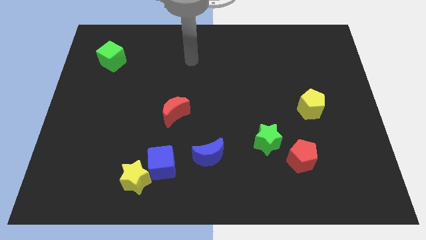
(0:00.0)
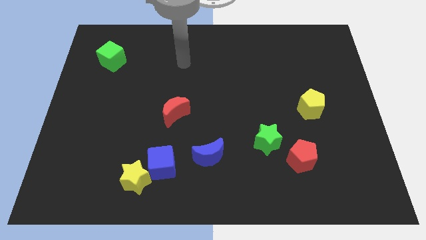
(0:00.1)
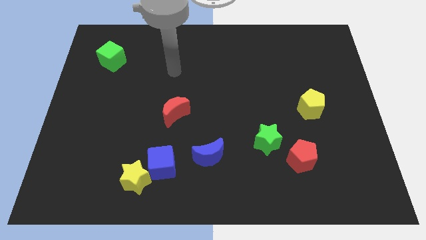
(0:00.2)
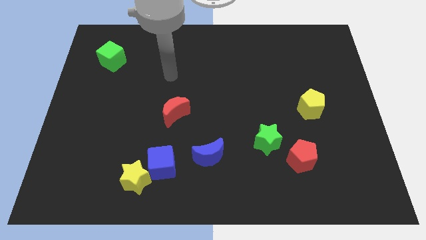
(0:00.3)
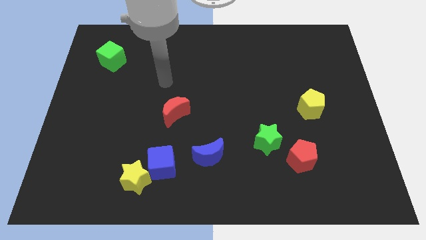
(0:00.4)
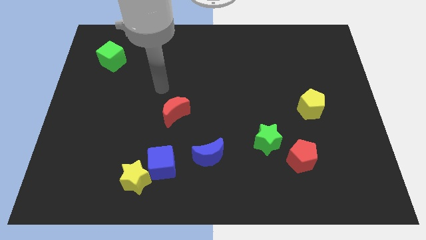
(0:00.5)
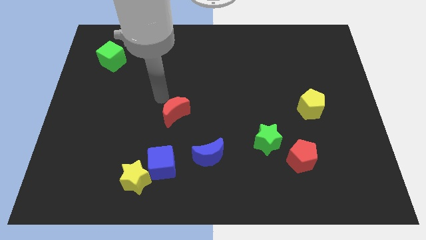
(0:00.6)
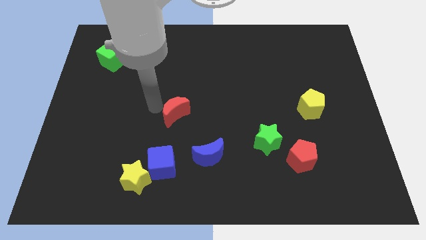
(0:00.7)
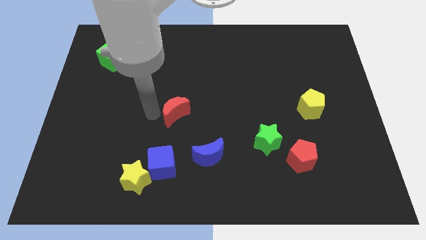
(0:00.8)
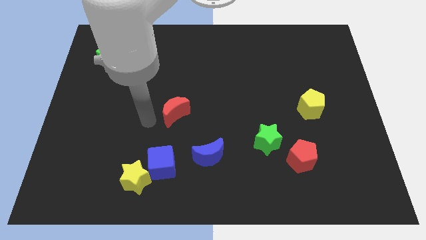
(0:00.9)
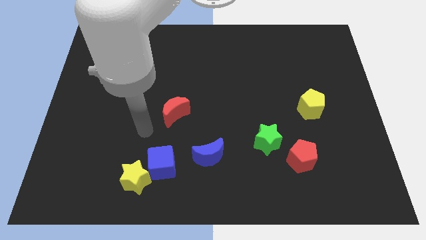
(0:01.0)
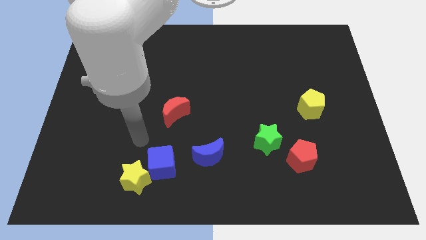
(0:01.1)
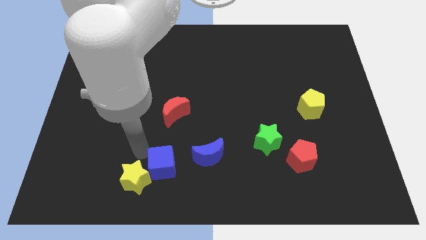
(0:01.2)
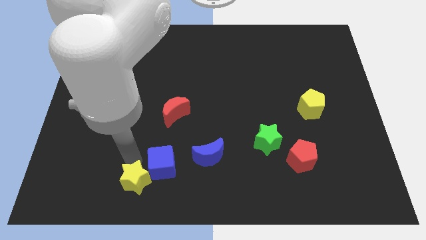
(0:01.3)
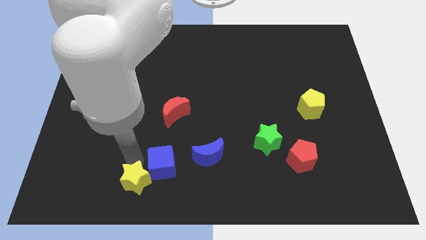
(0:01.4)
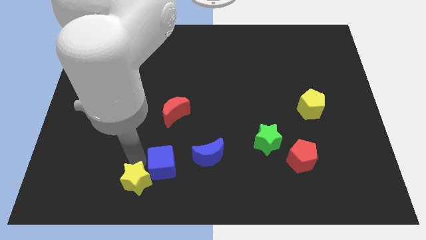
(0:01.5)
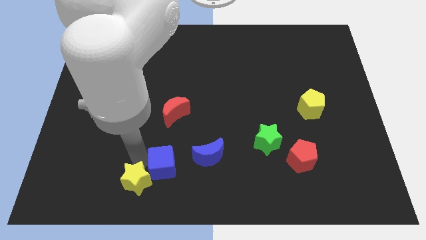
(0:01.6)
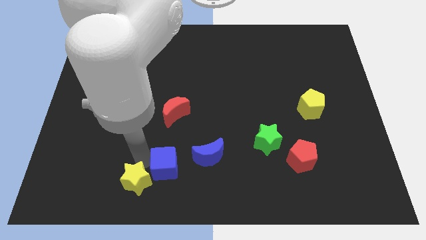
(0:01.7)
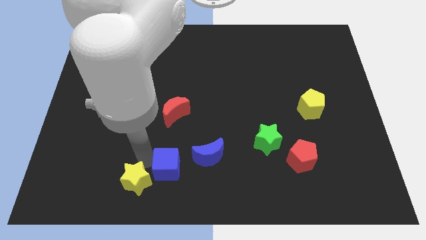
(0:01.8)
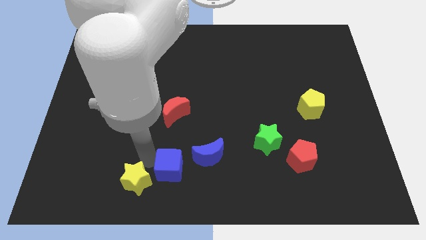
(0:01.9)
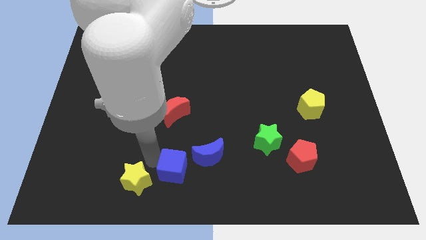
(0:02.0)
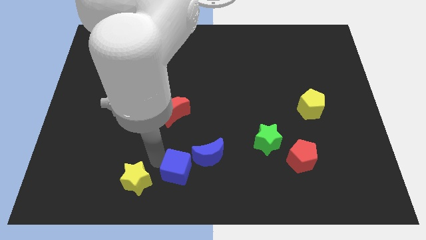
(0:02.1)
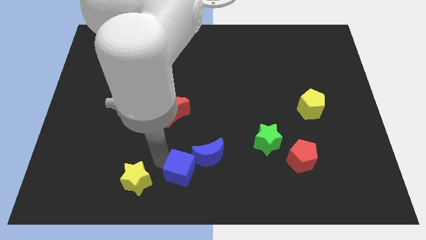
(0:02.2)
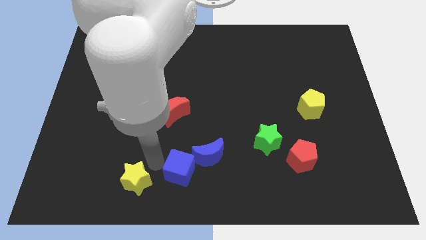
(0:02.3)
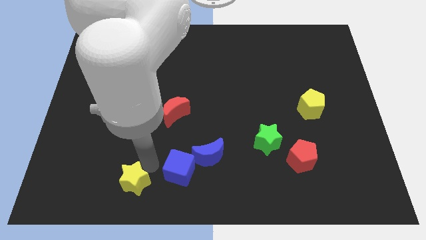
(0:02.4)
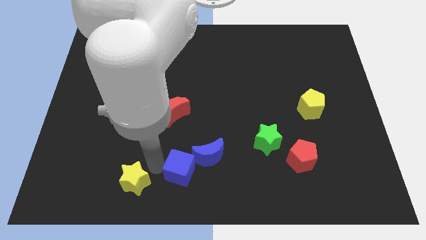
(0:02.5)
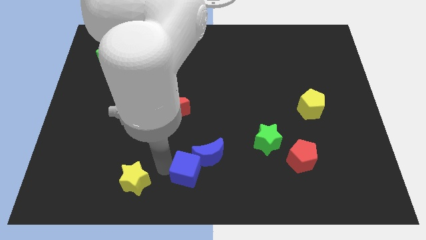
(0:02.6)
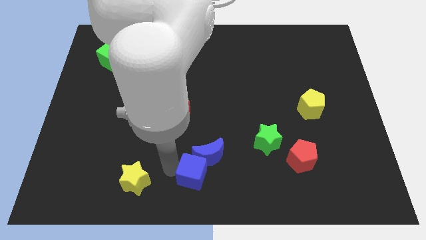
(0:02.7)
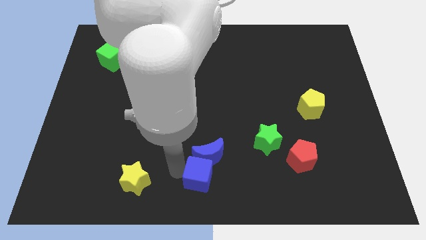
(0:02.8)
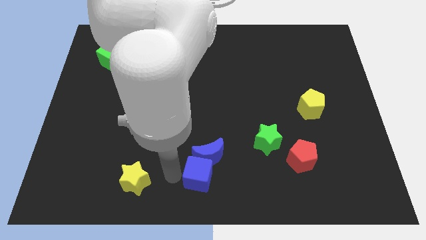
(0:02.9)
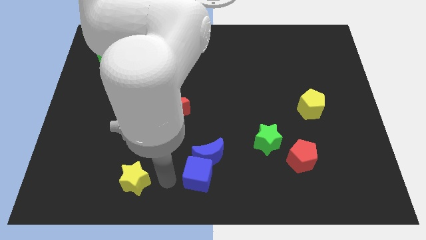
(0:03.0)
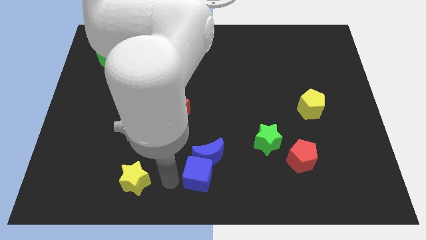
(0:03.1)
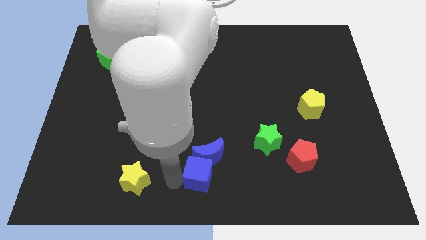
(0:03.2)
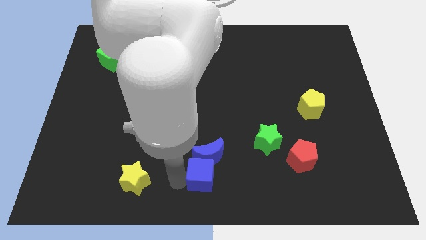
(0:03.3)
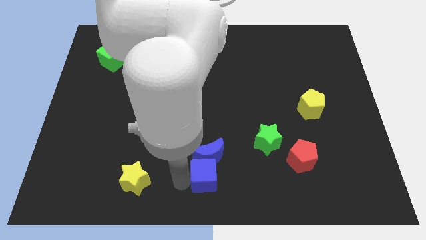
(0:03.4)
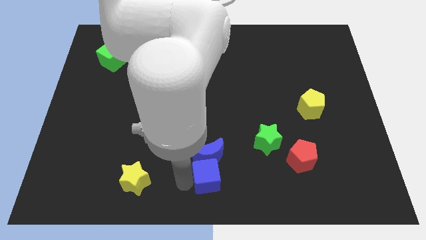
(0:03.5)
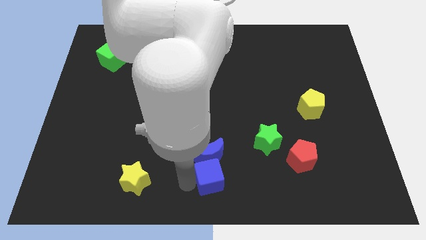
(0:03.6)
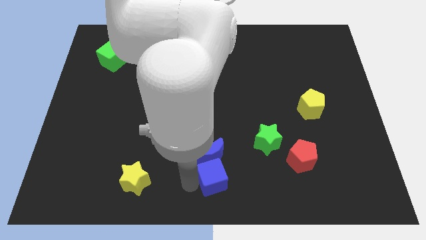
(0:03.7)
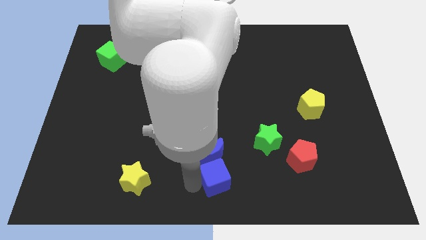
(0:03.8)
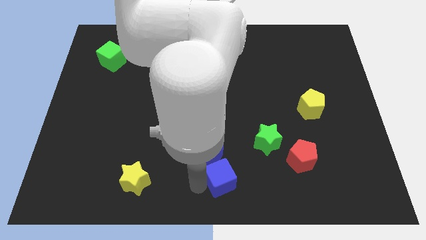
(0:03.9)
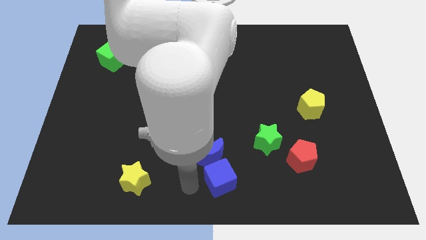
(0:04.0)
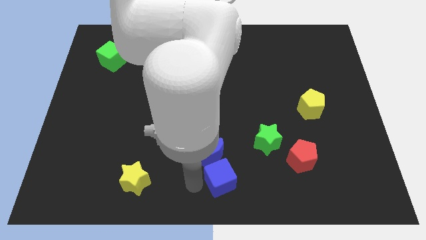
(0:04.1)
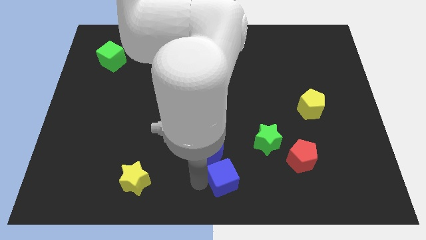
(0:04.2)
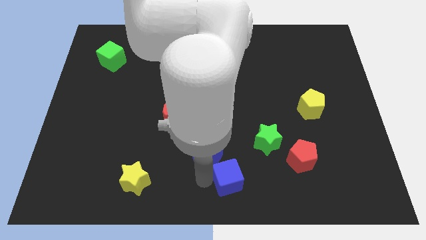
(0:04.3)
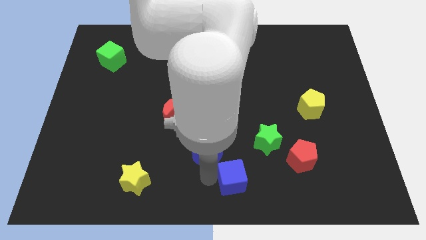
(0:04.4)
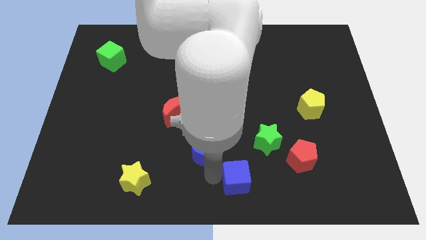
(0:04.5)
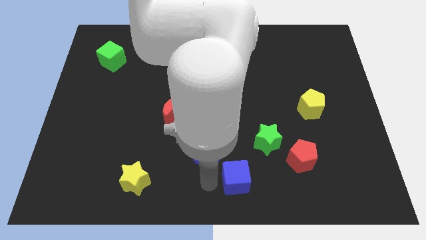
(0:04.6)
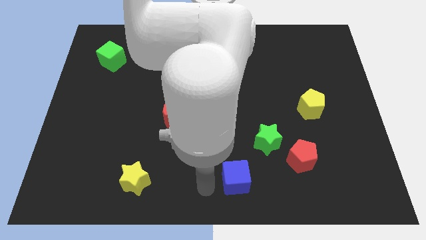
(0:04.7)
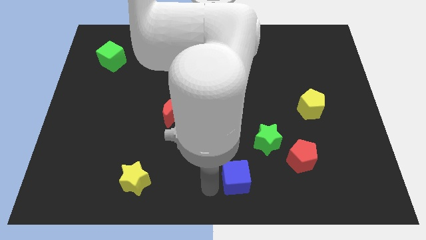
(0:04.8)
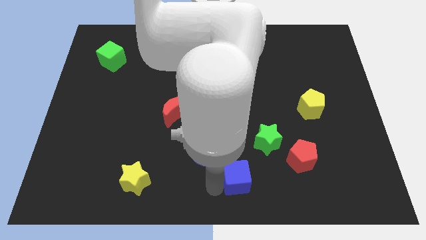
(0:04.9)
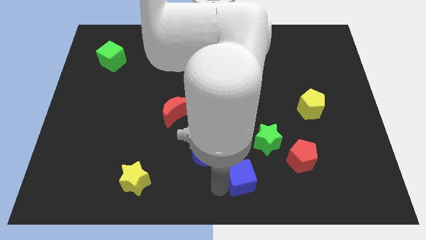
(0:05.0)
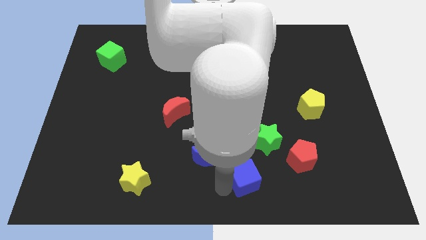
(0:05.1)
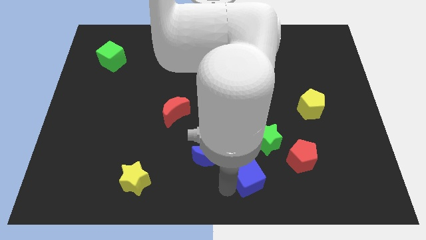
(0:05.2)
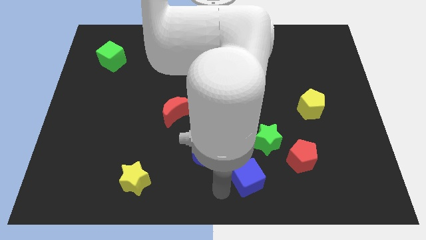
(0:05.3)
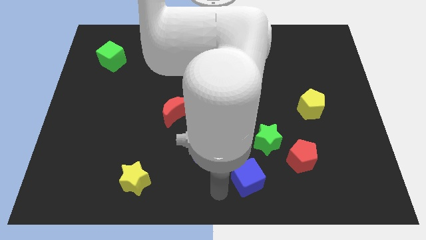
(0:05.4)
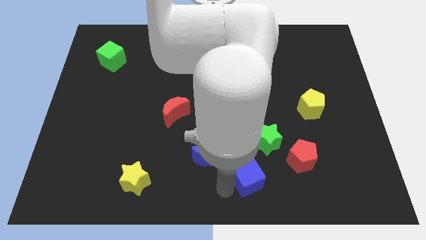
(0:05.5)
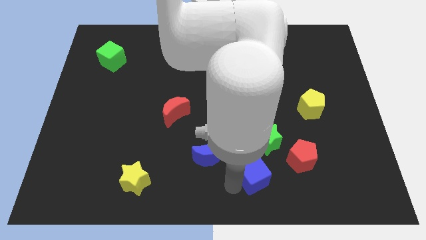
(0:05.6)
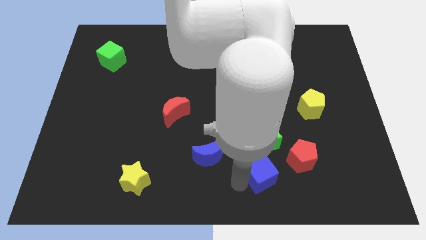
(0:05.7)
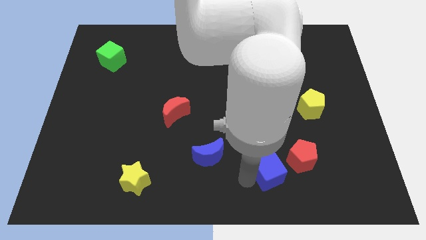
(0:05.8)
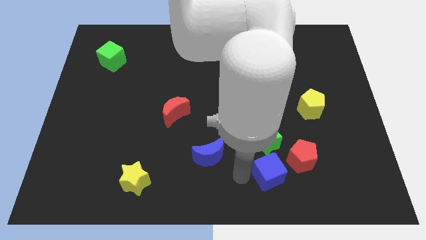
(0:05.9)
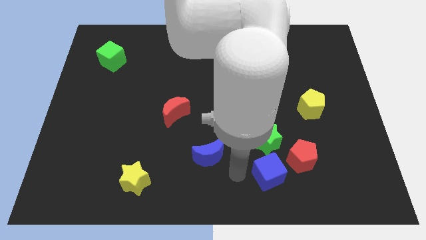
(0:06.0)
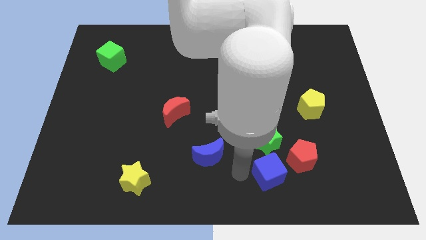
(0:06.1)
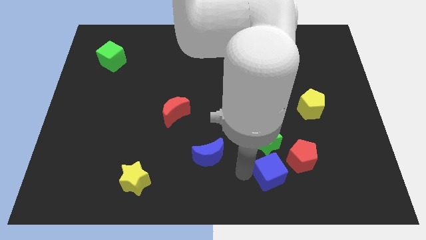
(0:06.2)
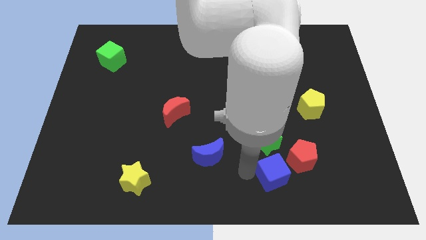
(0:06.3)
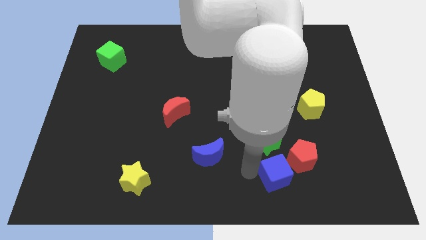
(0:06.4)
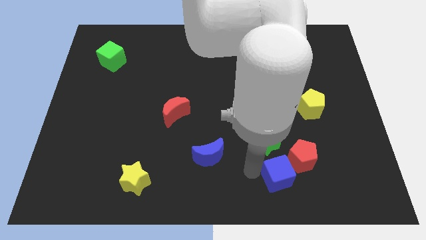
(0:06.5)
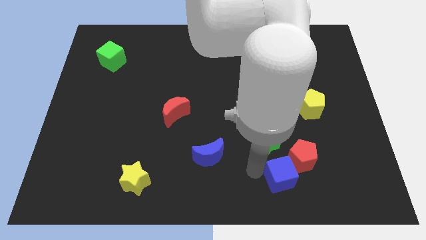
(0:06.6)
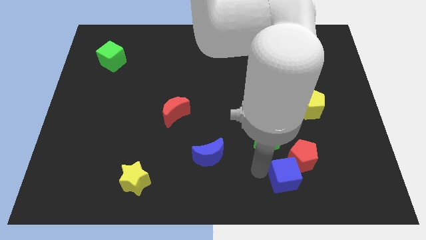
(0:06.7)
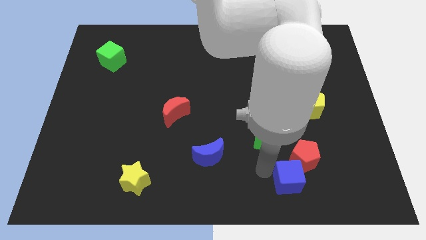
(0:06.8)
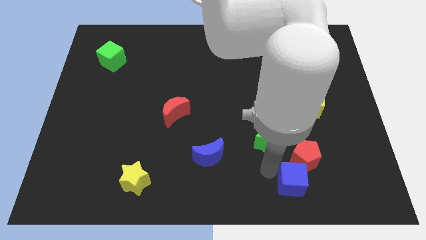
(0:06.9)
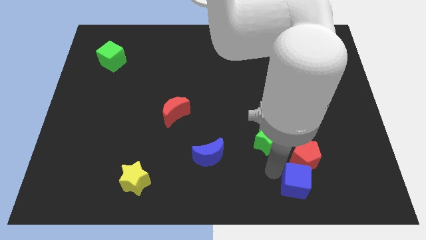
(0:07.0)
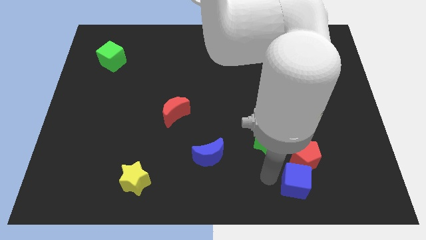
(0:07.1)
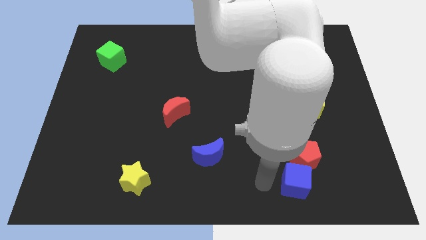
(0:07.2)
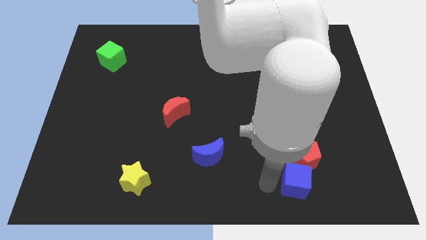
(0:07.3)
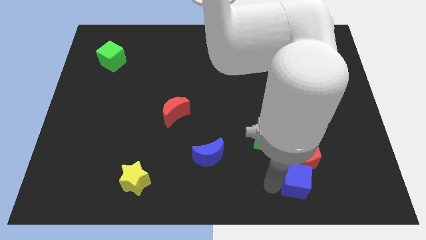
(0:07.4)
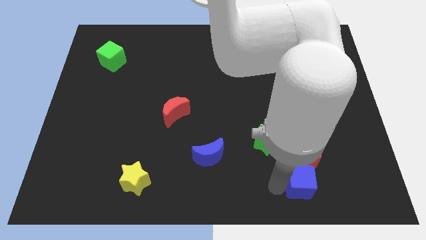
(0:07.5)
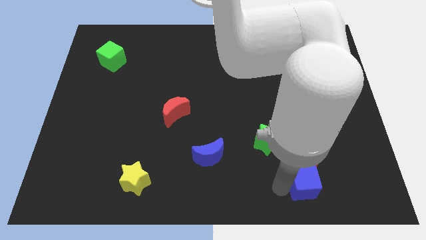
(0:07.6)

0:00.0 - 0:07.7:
move the blue cube to the bottom right side of the red pentagon
